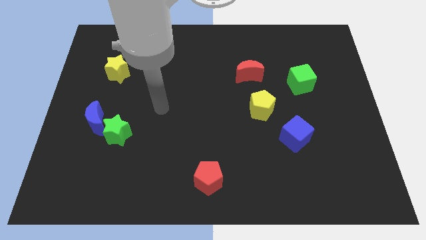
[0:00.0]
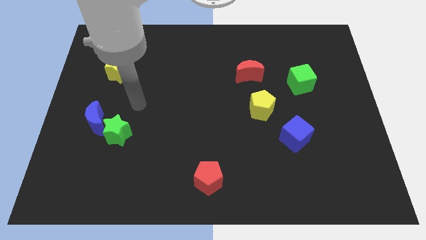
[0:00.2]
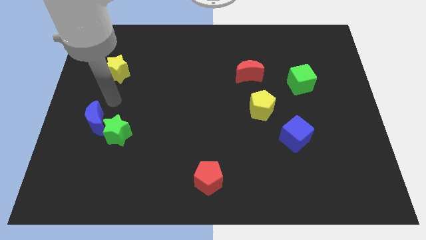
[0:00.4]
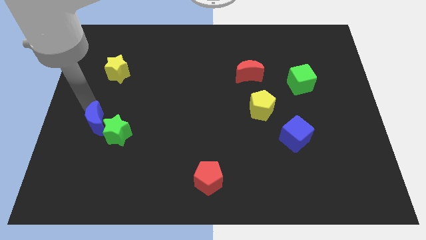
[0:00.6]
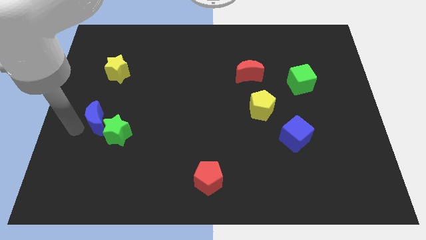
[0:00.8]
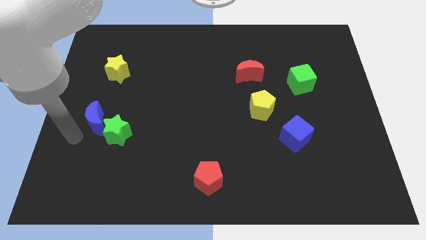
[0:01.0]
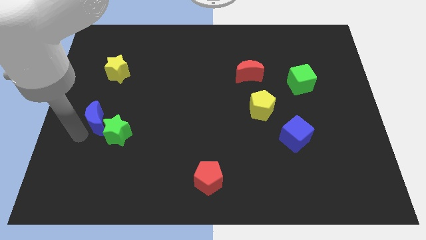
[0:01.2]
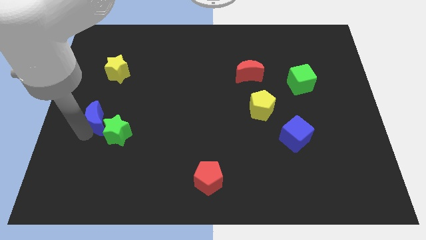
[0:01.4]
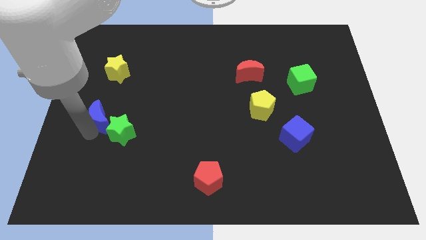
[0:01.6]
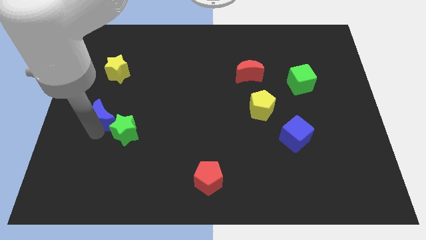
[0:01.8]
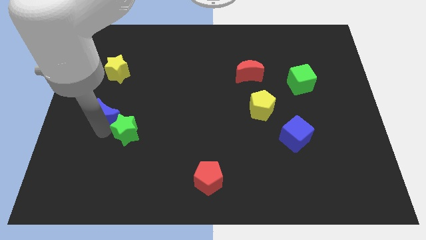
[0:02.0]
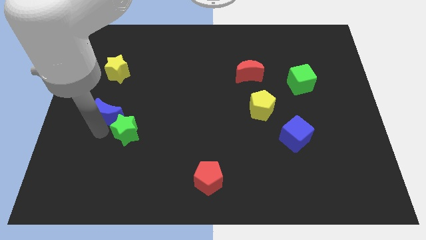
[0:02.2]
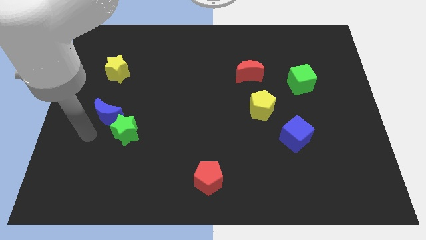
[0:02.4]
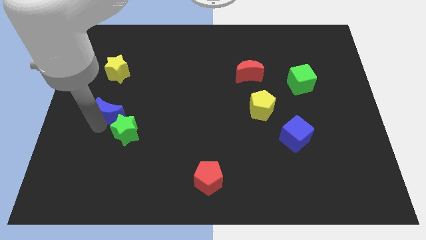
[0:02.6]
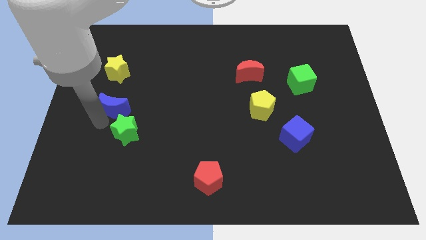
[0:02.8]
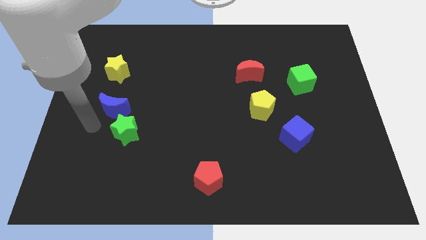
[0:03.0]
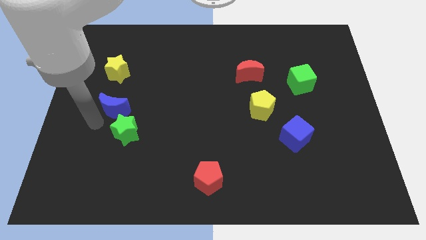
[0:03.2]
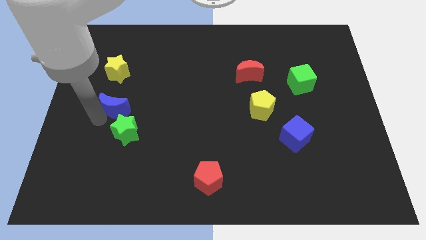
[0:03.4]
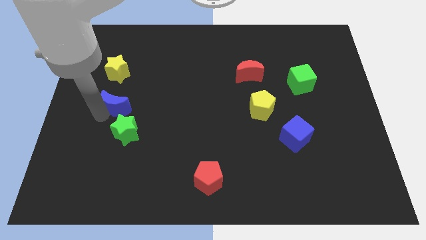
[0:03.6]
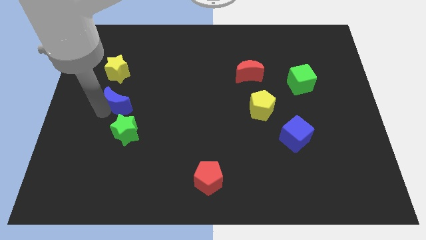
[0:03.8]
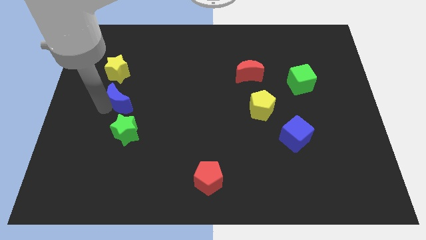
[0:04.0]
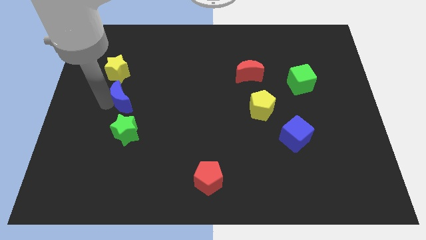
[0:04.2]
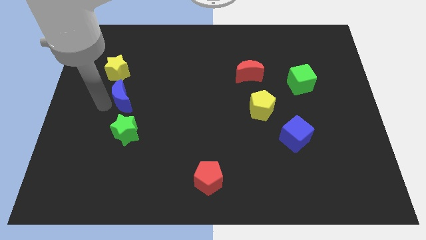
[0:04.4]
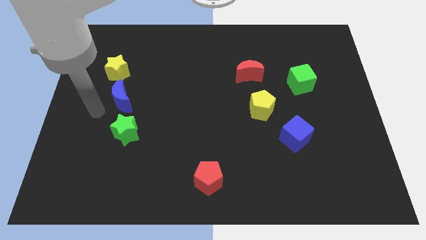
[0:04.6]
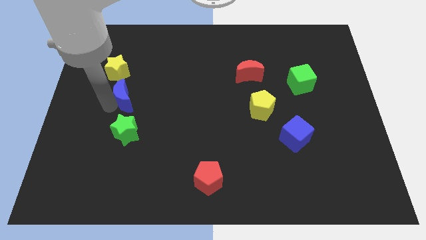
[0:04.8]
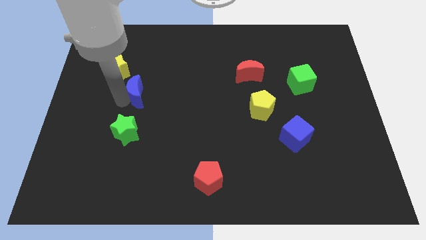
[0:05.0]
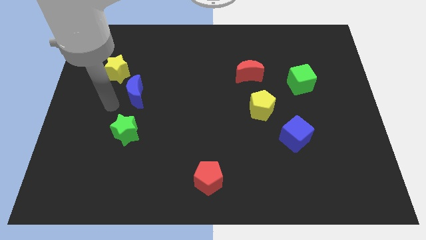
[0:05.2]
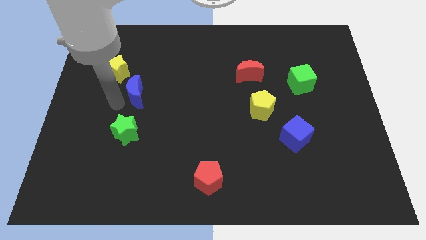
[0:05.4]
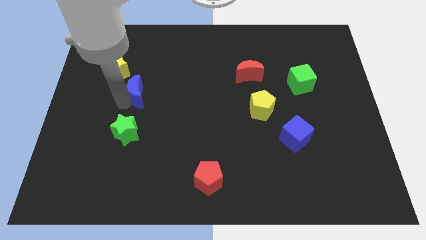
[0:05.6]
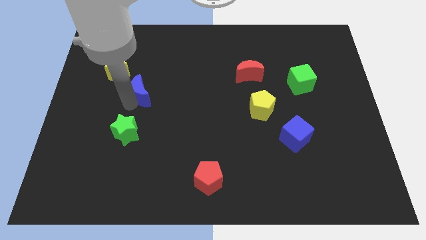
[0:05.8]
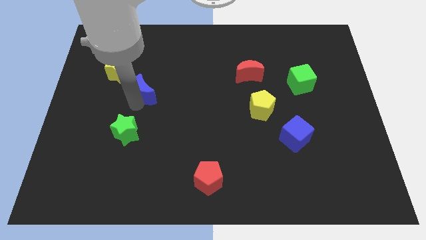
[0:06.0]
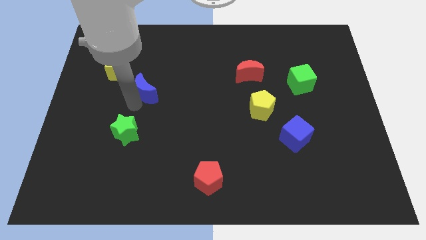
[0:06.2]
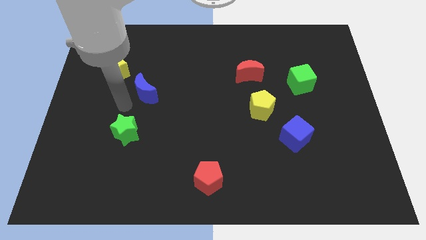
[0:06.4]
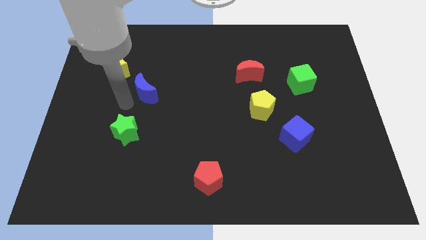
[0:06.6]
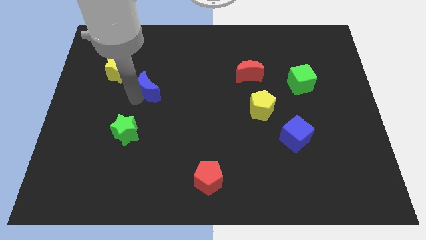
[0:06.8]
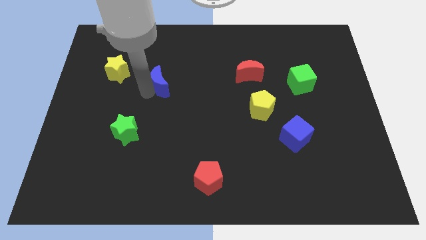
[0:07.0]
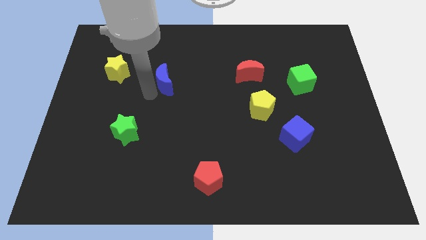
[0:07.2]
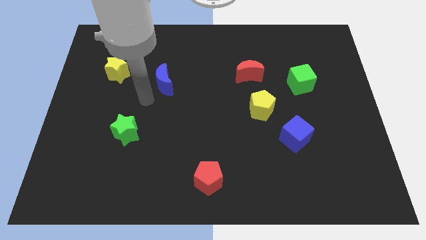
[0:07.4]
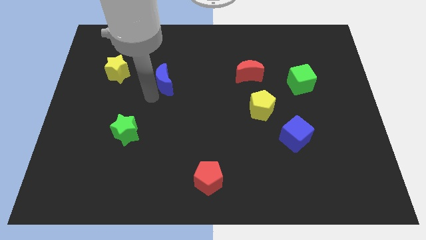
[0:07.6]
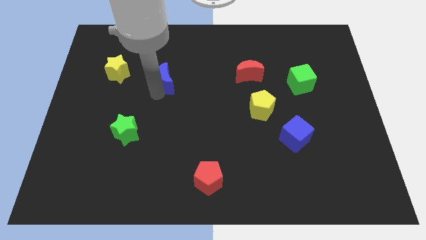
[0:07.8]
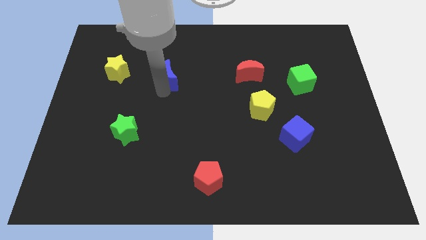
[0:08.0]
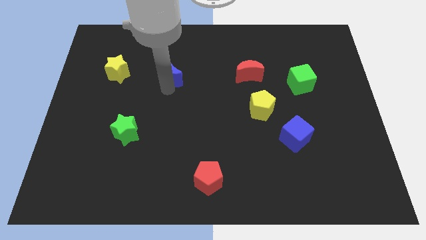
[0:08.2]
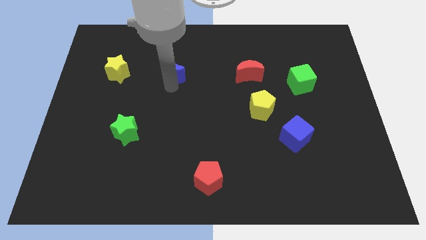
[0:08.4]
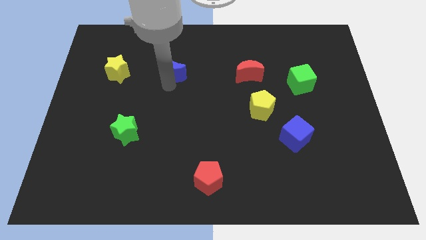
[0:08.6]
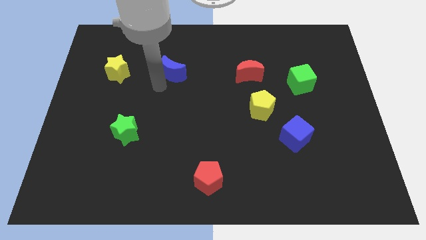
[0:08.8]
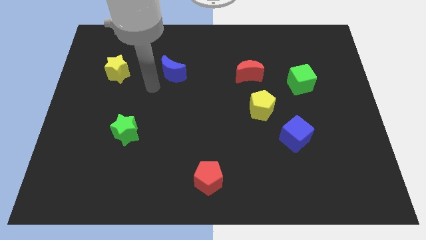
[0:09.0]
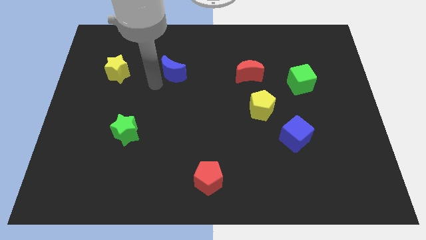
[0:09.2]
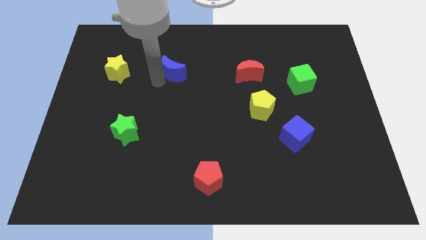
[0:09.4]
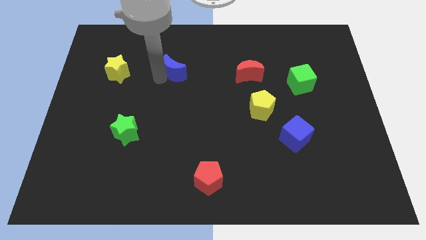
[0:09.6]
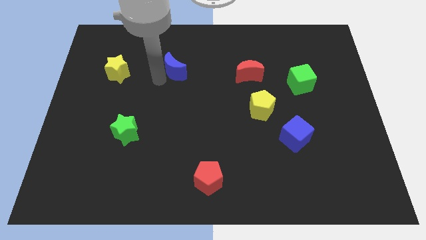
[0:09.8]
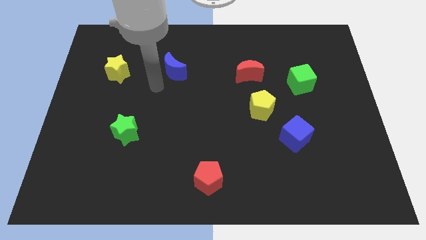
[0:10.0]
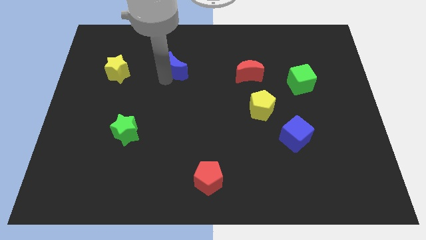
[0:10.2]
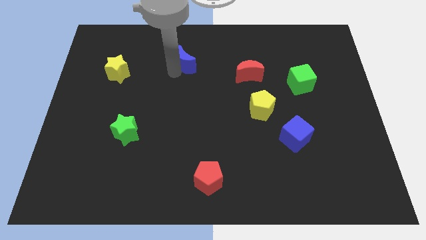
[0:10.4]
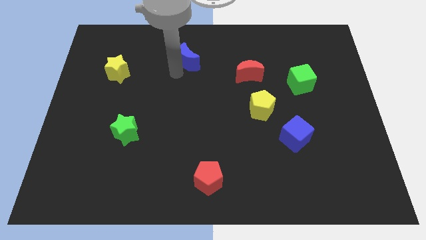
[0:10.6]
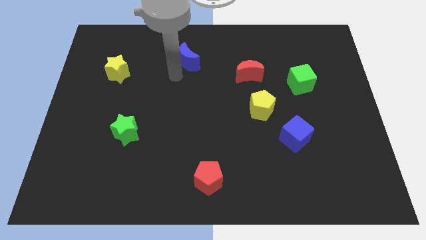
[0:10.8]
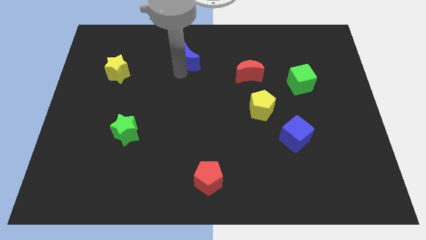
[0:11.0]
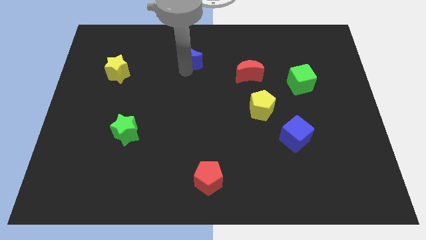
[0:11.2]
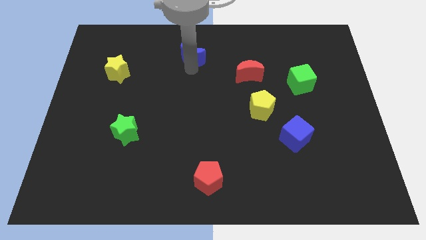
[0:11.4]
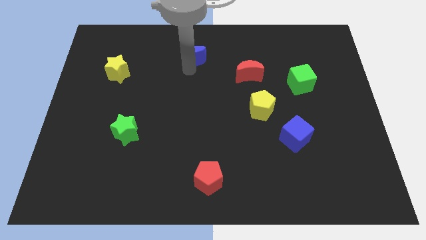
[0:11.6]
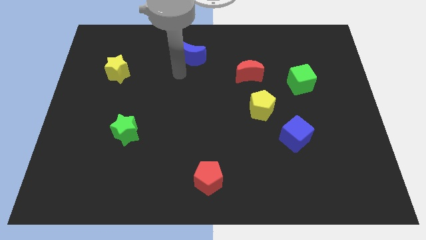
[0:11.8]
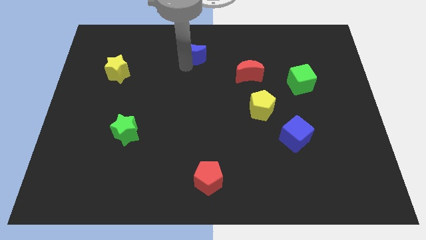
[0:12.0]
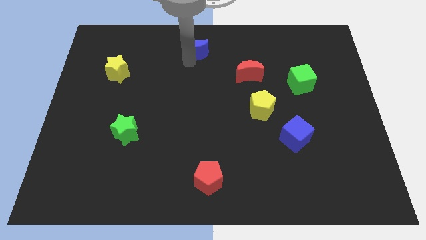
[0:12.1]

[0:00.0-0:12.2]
slide the blue moon to the towards your base

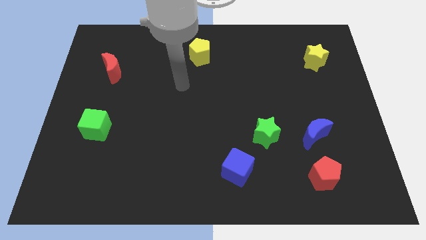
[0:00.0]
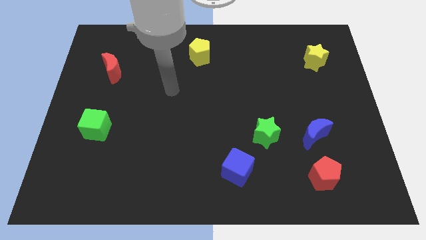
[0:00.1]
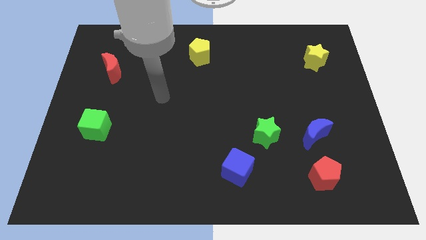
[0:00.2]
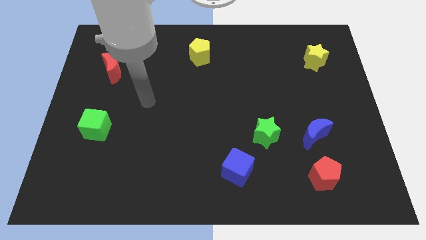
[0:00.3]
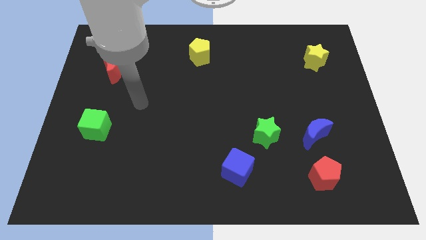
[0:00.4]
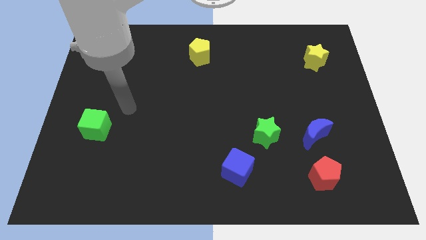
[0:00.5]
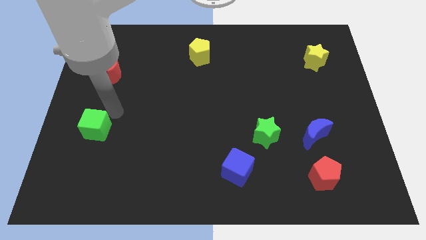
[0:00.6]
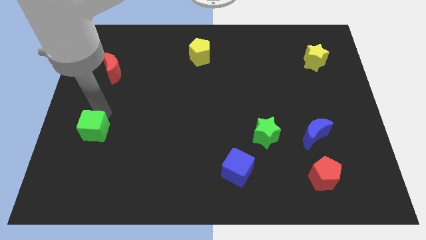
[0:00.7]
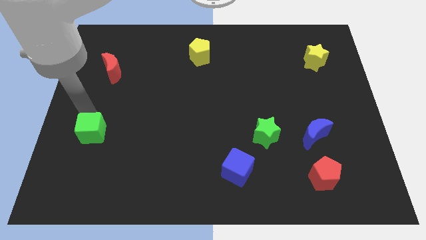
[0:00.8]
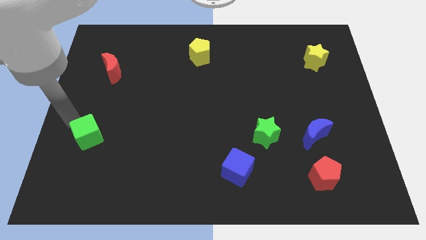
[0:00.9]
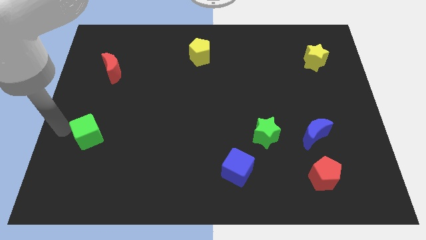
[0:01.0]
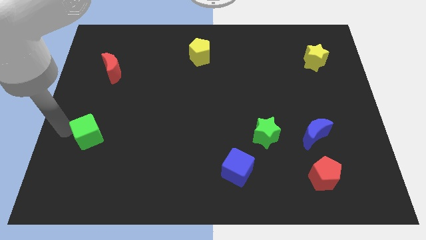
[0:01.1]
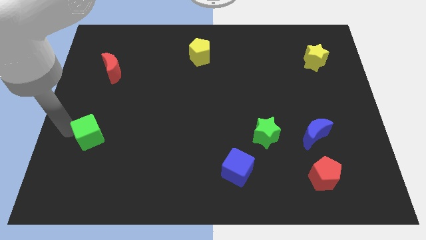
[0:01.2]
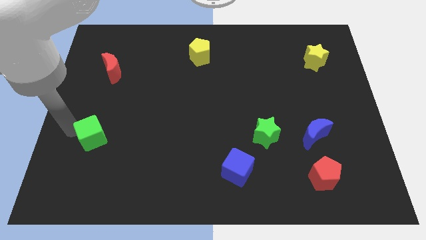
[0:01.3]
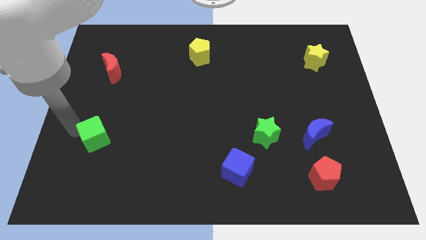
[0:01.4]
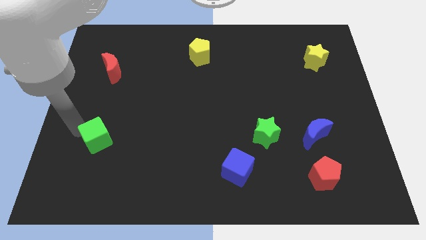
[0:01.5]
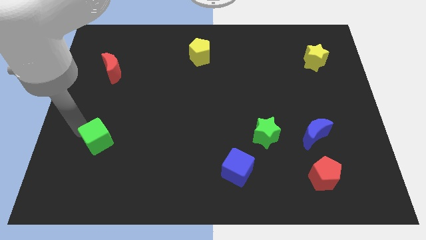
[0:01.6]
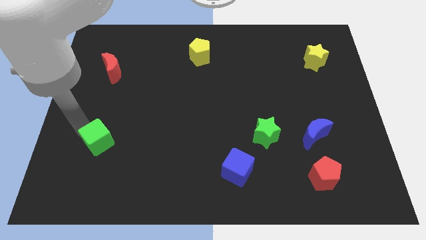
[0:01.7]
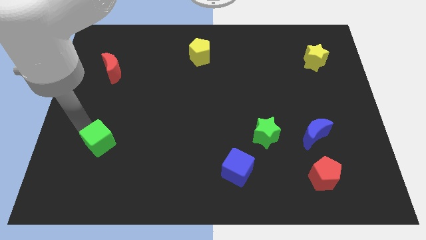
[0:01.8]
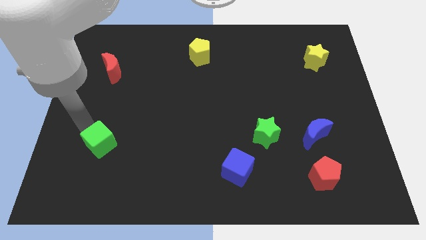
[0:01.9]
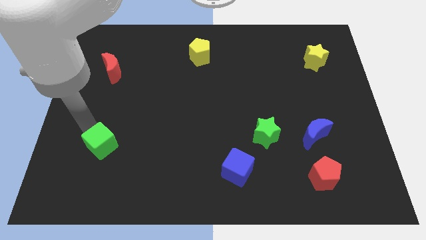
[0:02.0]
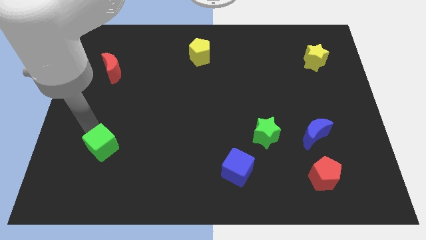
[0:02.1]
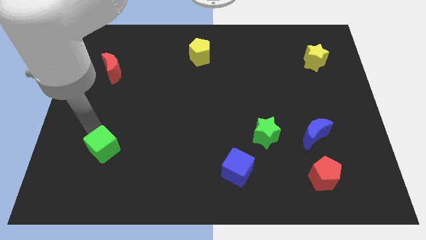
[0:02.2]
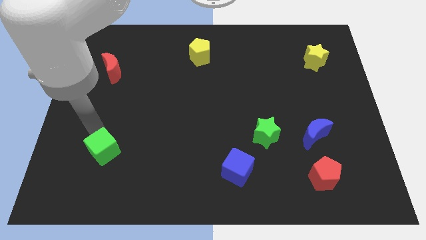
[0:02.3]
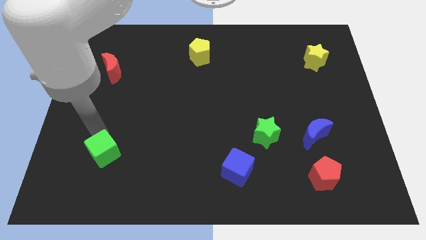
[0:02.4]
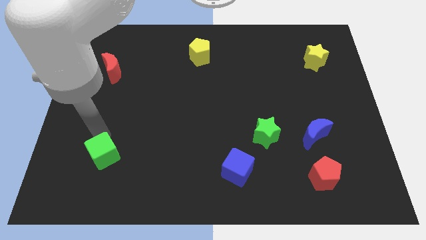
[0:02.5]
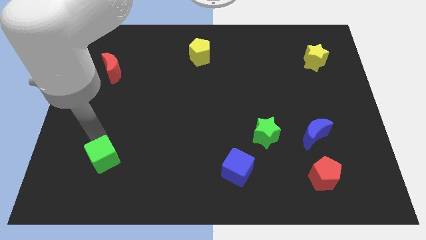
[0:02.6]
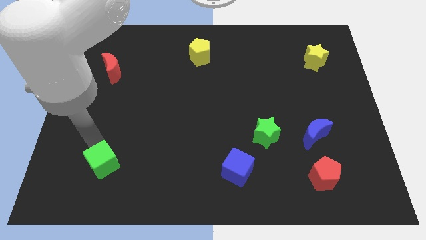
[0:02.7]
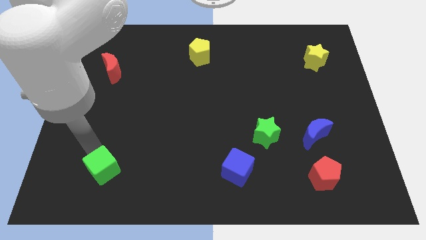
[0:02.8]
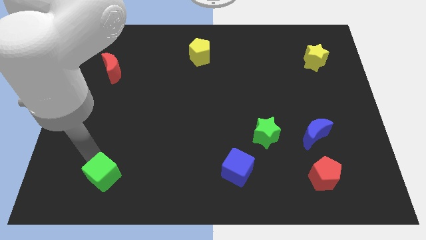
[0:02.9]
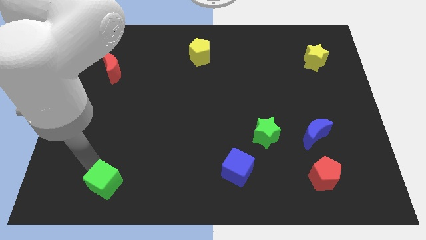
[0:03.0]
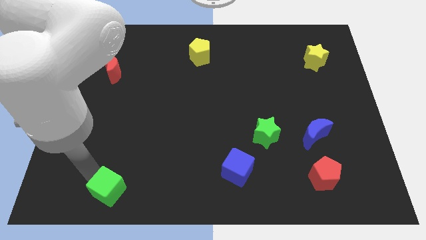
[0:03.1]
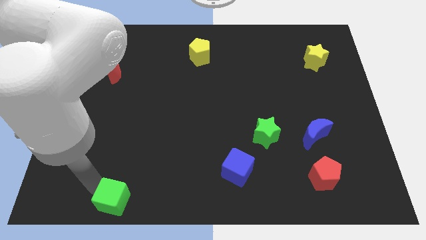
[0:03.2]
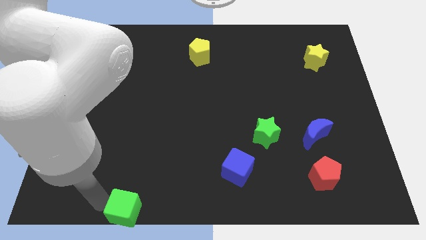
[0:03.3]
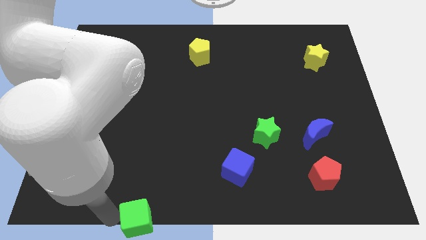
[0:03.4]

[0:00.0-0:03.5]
move the green cube to the bottom side
